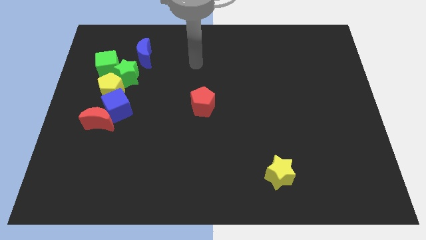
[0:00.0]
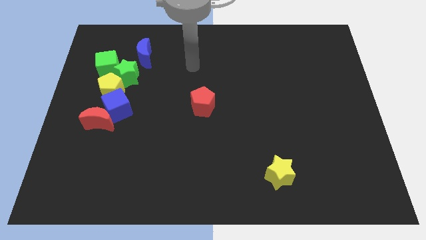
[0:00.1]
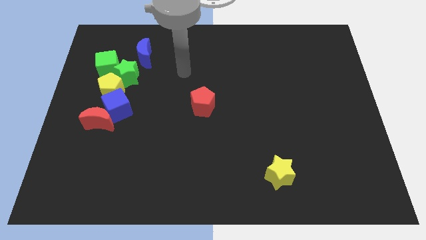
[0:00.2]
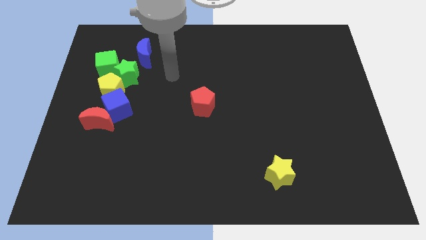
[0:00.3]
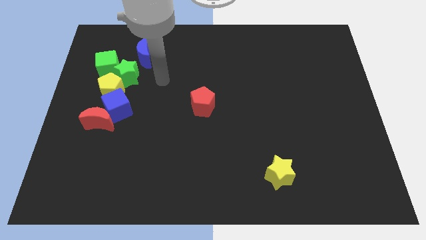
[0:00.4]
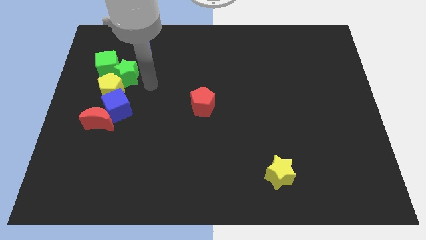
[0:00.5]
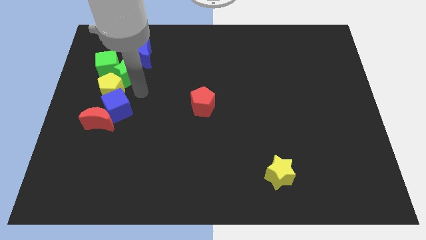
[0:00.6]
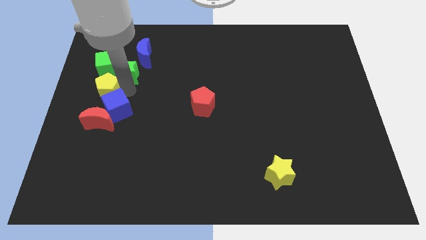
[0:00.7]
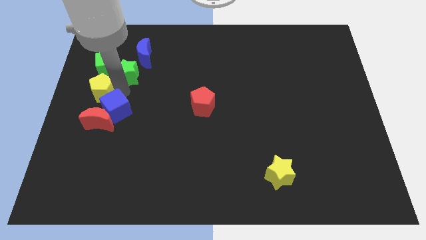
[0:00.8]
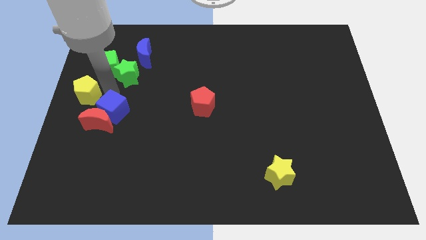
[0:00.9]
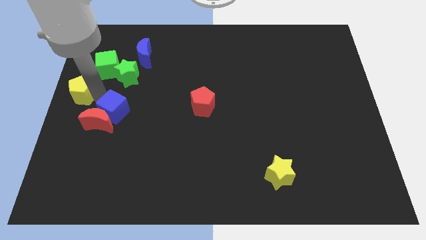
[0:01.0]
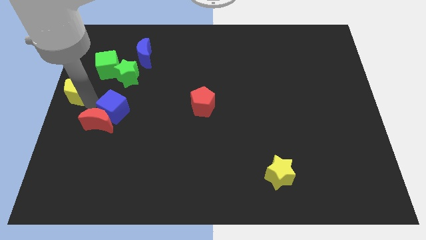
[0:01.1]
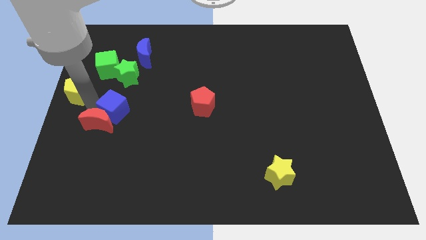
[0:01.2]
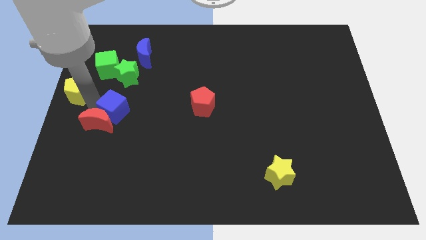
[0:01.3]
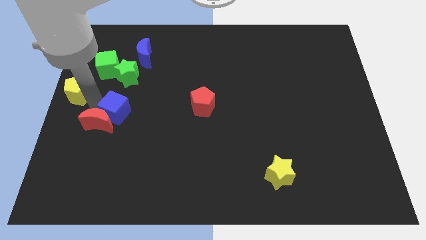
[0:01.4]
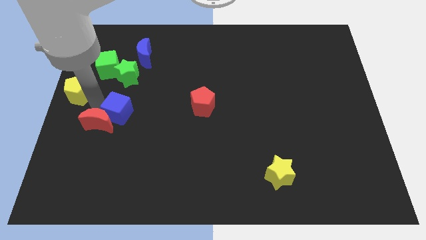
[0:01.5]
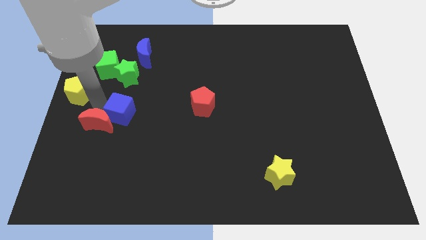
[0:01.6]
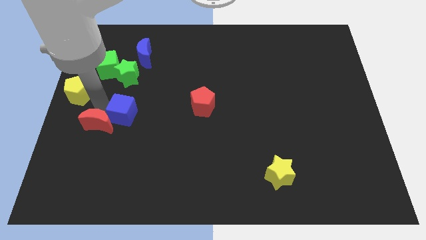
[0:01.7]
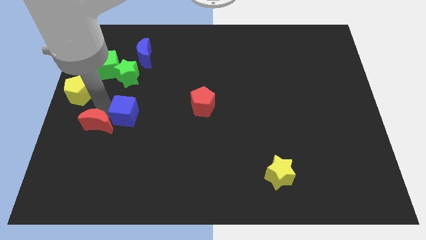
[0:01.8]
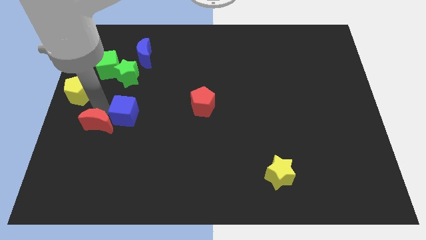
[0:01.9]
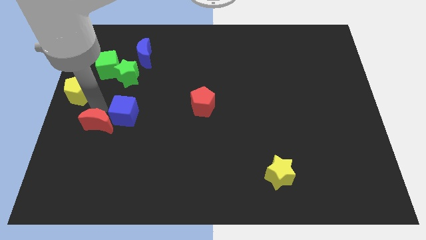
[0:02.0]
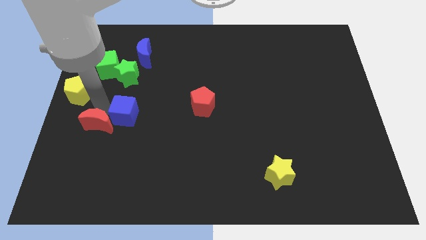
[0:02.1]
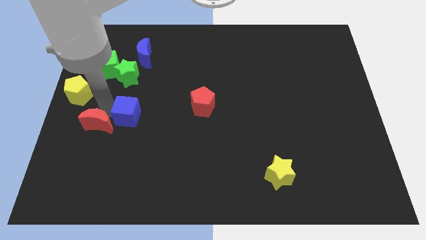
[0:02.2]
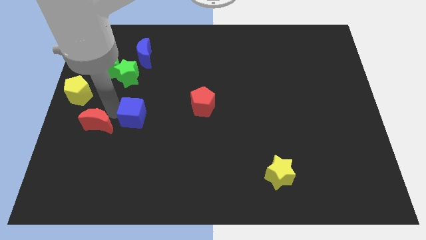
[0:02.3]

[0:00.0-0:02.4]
move the blue cube away from the red moon and yellow pentagon

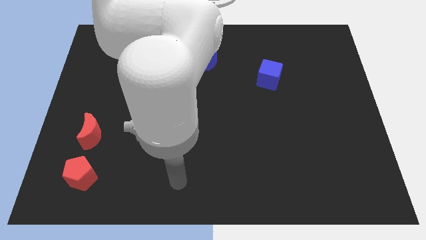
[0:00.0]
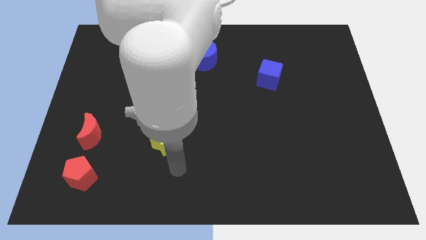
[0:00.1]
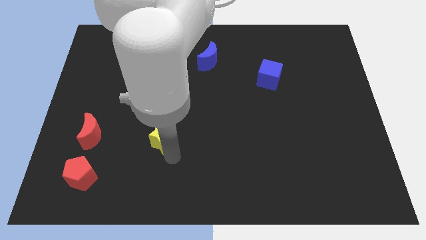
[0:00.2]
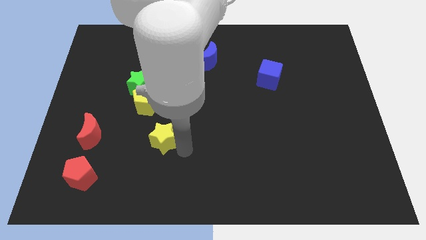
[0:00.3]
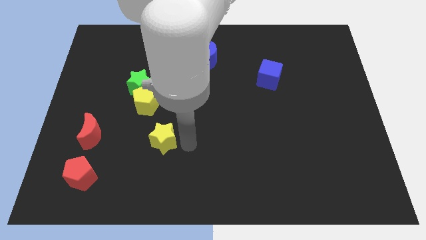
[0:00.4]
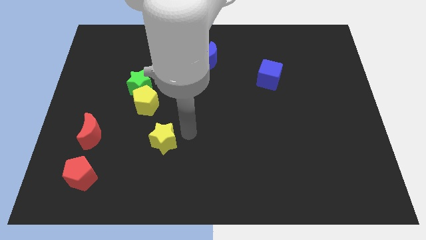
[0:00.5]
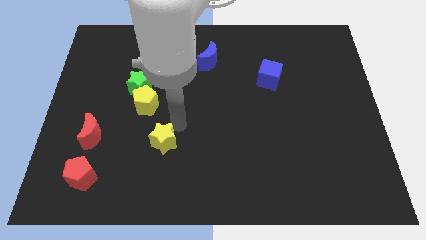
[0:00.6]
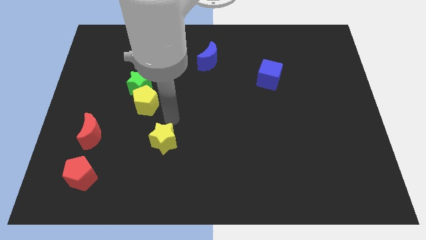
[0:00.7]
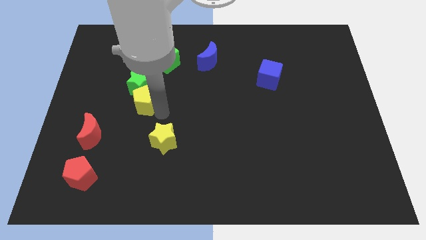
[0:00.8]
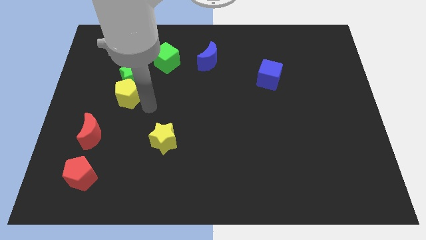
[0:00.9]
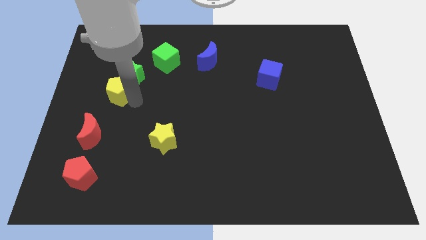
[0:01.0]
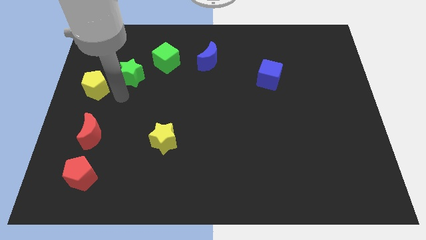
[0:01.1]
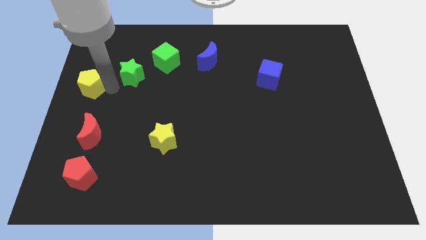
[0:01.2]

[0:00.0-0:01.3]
move the green star away from the yellow pentagon

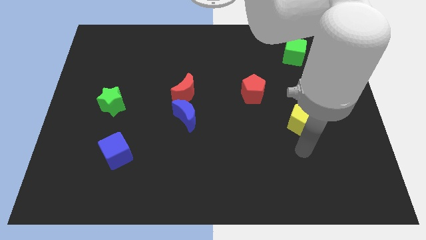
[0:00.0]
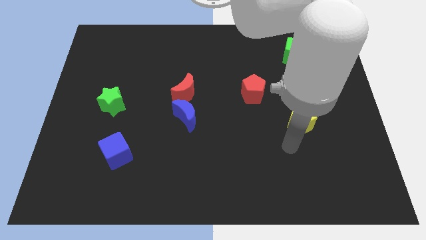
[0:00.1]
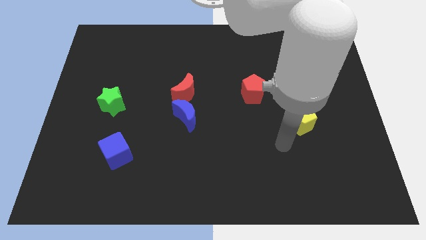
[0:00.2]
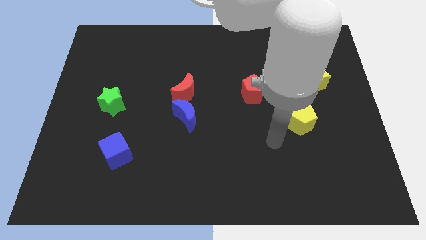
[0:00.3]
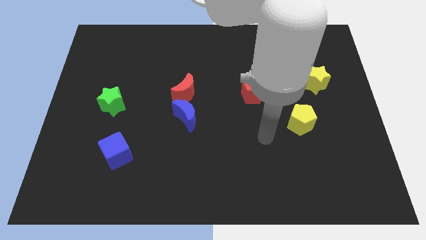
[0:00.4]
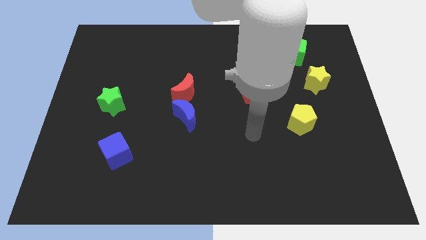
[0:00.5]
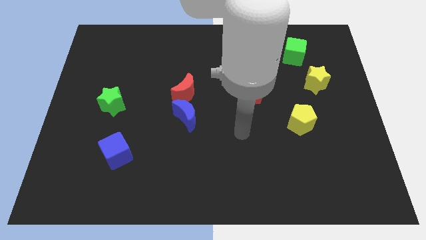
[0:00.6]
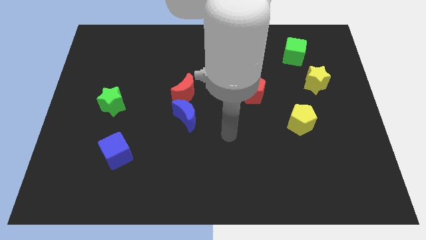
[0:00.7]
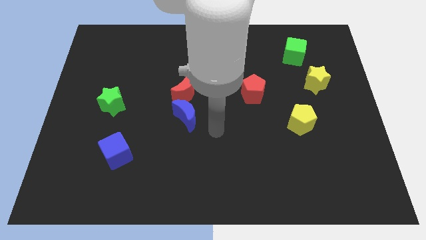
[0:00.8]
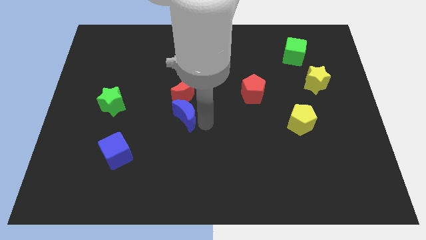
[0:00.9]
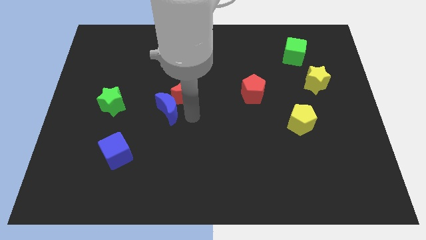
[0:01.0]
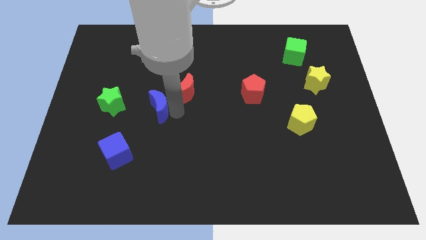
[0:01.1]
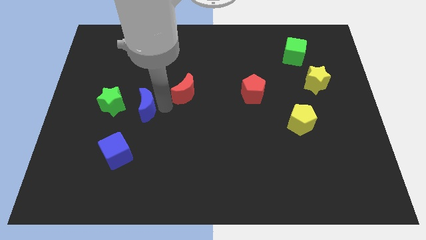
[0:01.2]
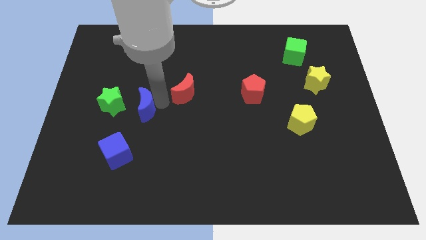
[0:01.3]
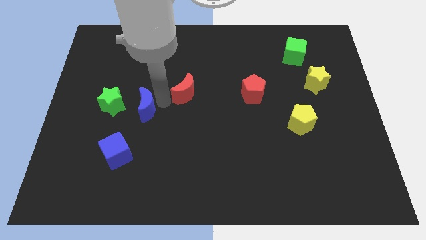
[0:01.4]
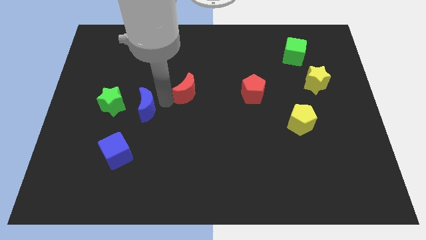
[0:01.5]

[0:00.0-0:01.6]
separate the red moon from the blue moon

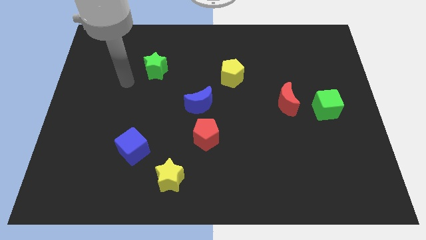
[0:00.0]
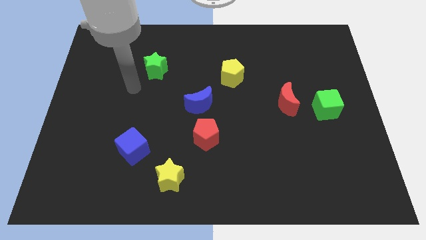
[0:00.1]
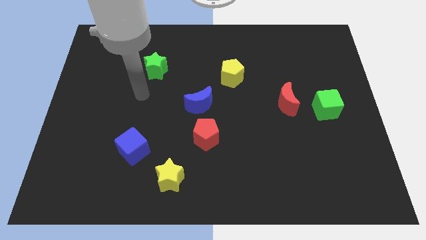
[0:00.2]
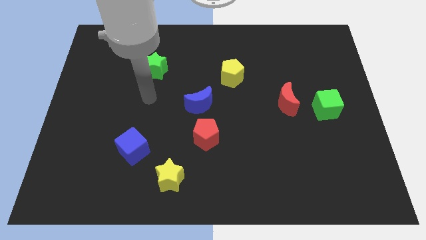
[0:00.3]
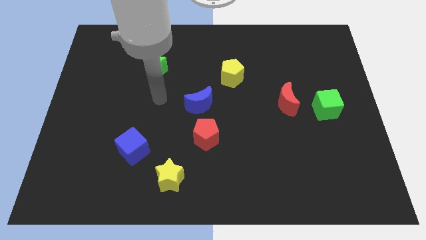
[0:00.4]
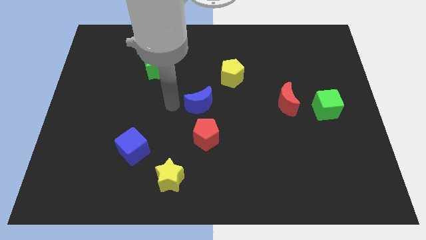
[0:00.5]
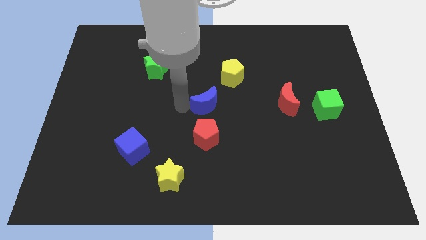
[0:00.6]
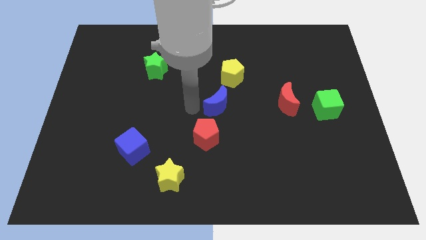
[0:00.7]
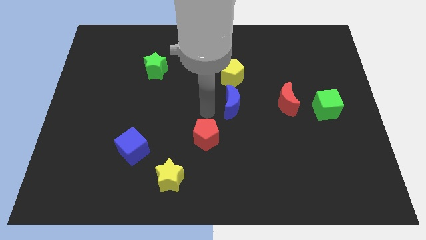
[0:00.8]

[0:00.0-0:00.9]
pull the red pentagon apart from the blue moon

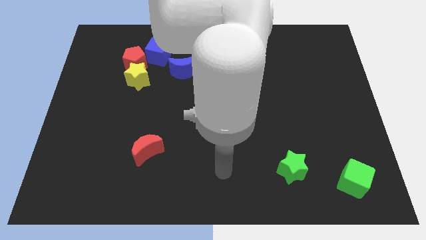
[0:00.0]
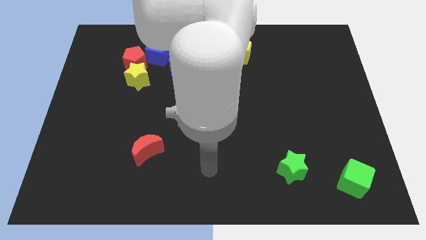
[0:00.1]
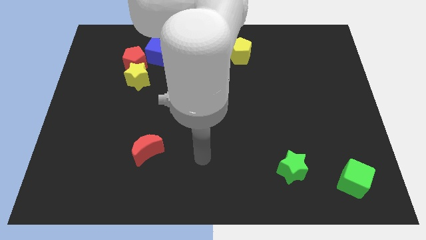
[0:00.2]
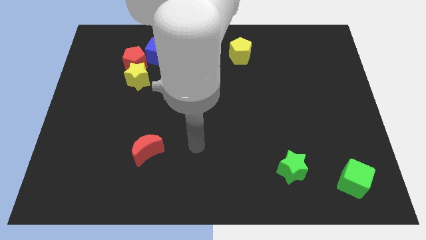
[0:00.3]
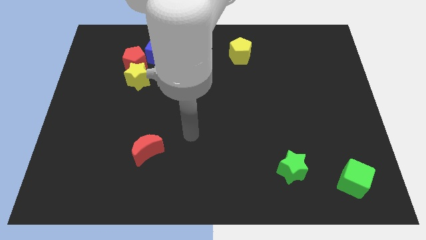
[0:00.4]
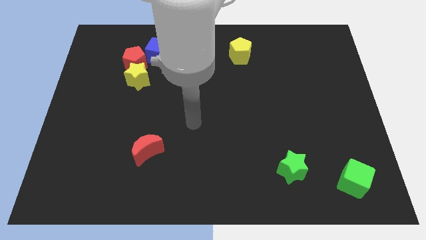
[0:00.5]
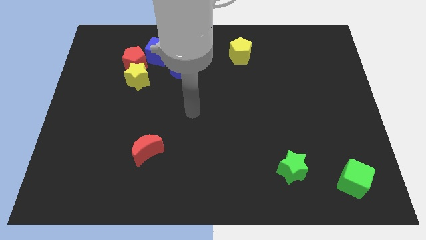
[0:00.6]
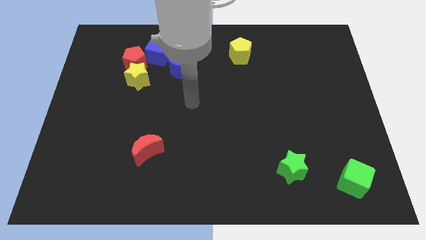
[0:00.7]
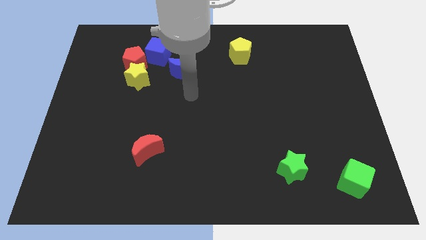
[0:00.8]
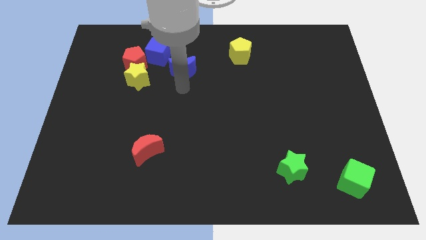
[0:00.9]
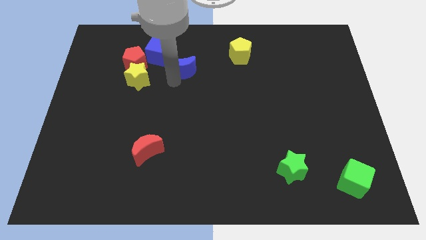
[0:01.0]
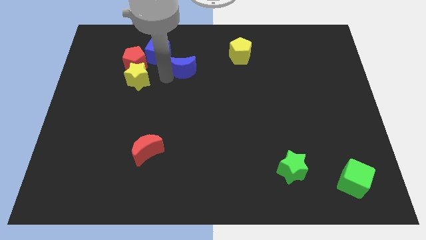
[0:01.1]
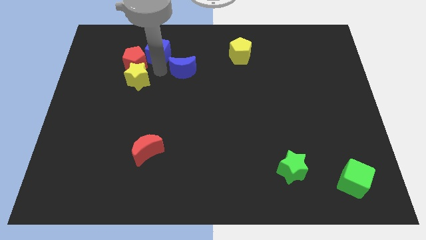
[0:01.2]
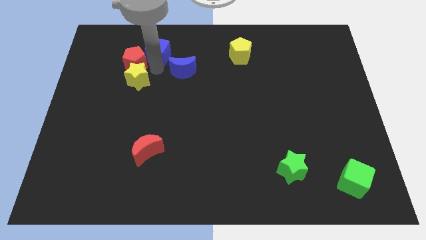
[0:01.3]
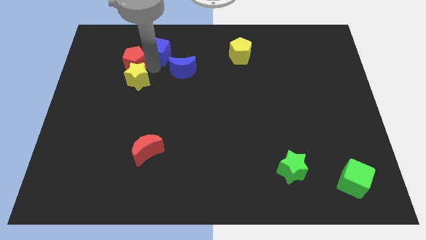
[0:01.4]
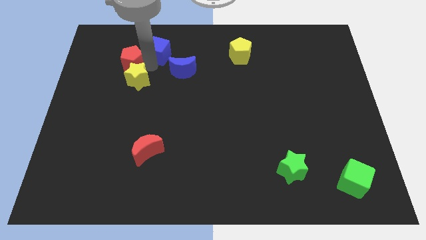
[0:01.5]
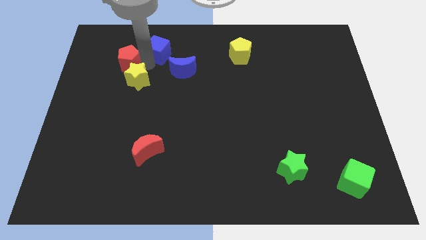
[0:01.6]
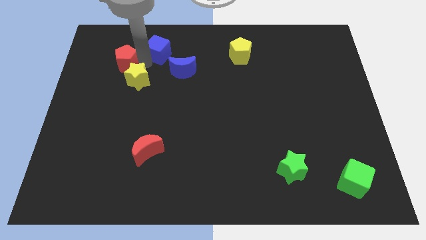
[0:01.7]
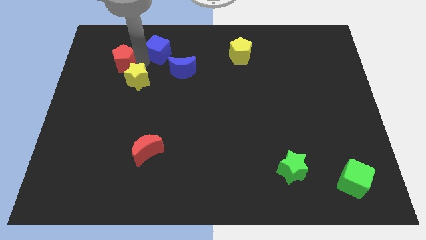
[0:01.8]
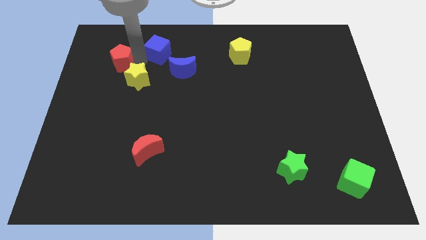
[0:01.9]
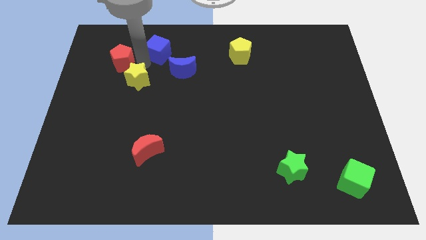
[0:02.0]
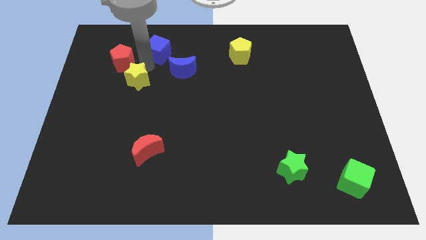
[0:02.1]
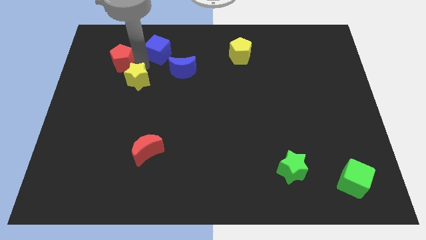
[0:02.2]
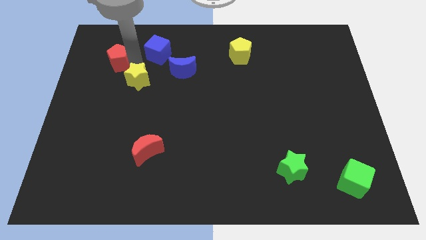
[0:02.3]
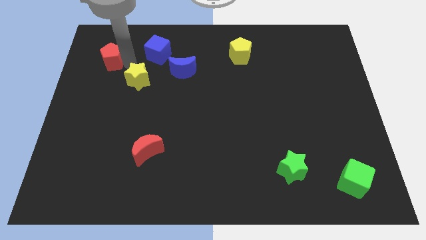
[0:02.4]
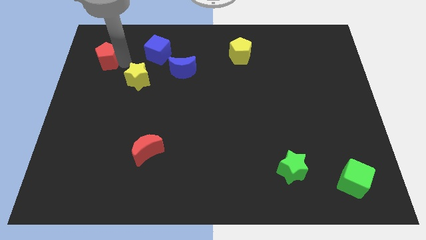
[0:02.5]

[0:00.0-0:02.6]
move the red pentagon away from the yellow star and blue cube

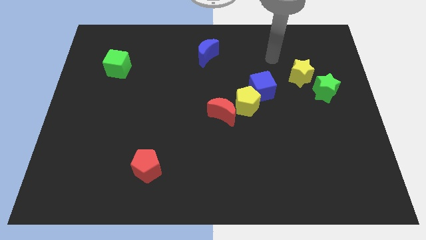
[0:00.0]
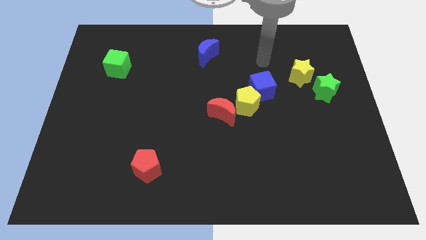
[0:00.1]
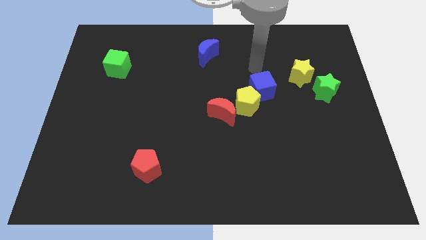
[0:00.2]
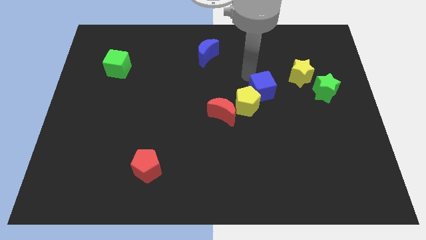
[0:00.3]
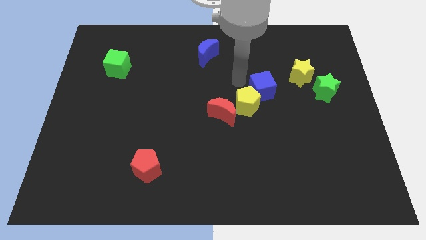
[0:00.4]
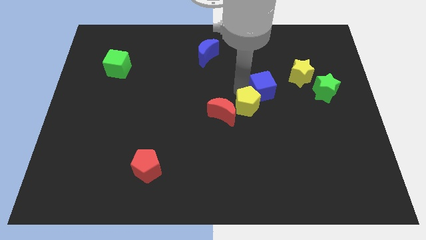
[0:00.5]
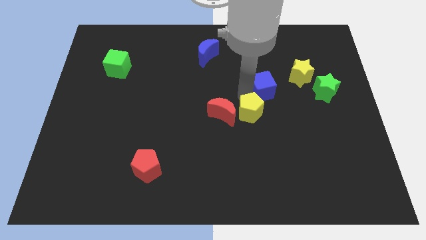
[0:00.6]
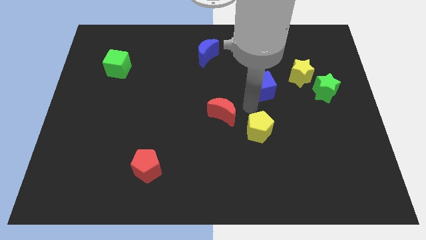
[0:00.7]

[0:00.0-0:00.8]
separate the blue cube from the yellow pentagon
